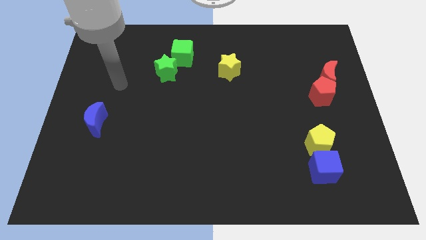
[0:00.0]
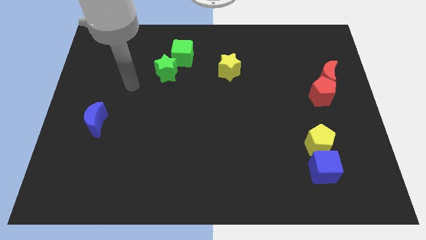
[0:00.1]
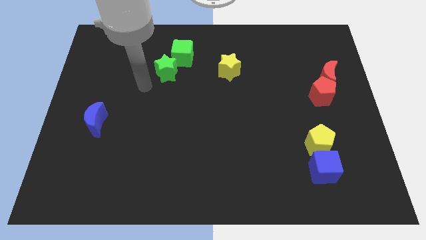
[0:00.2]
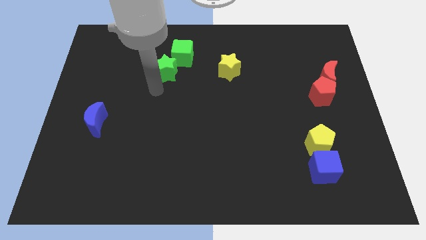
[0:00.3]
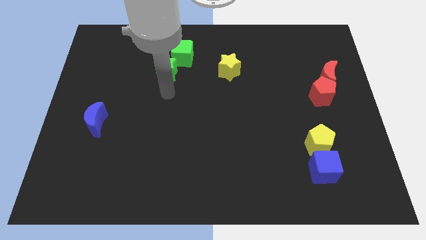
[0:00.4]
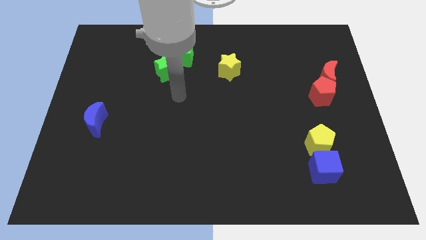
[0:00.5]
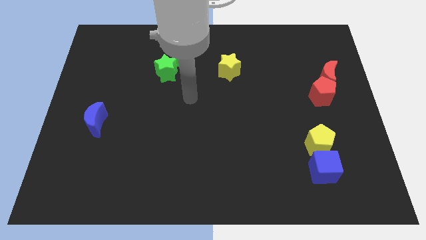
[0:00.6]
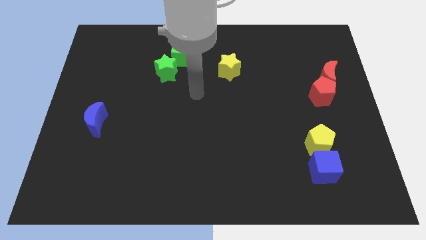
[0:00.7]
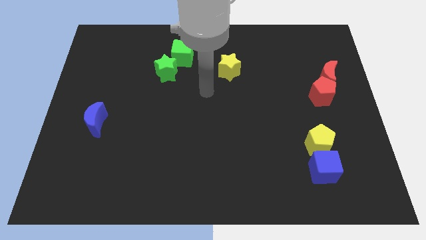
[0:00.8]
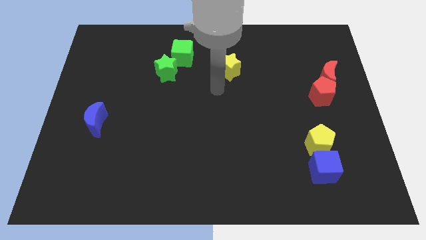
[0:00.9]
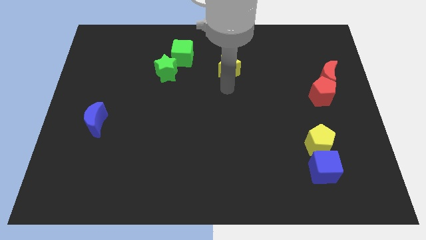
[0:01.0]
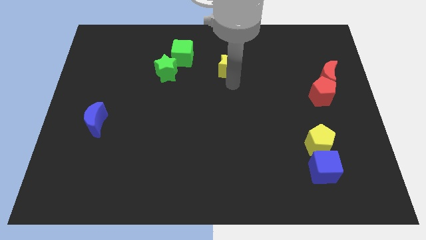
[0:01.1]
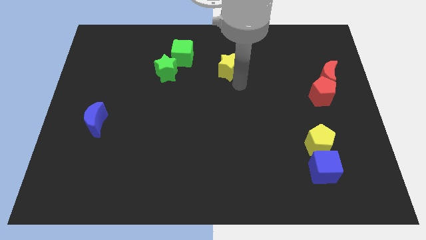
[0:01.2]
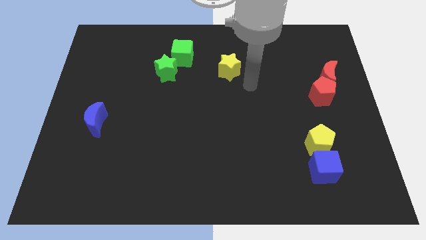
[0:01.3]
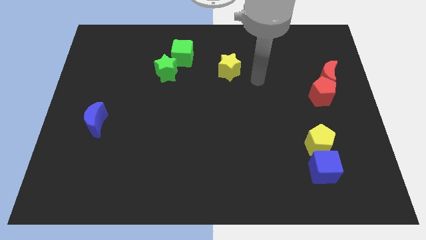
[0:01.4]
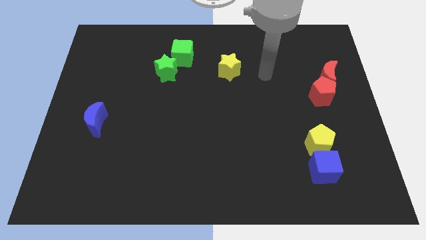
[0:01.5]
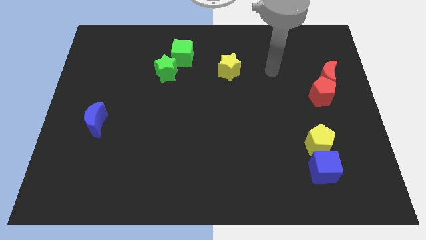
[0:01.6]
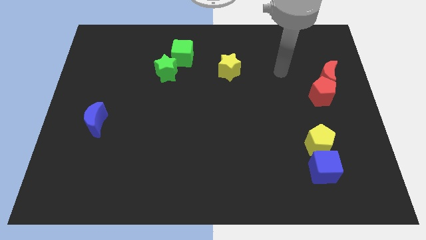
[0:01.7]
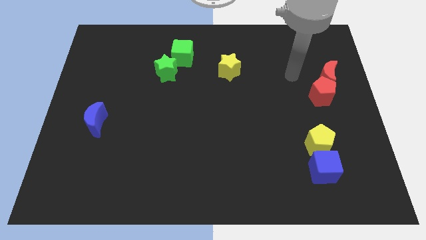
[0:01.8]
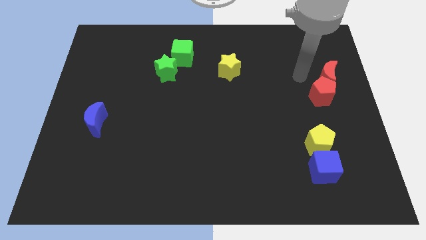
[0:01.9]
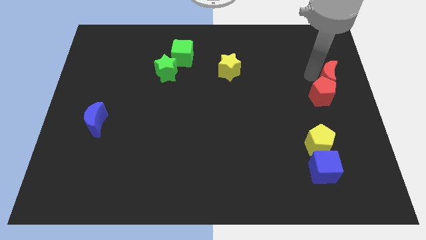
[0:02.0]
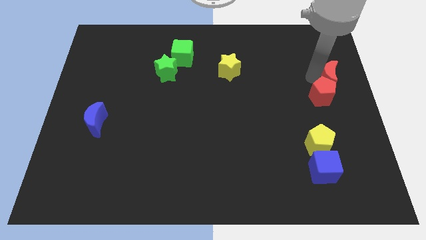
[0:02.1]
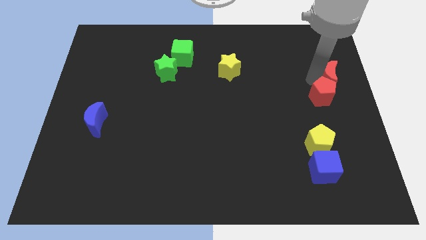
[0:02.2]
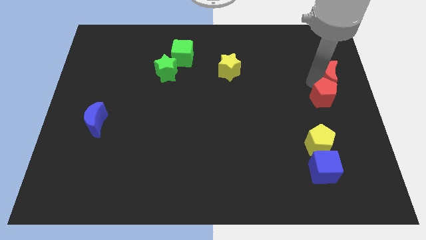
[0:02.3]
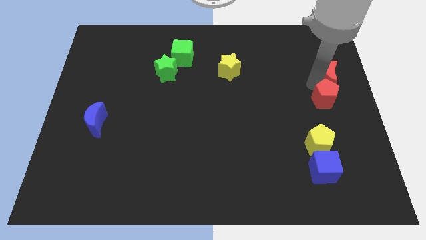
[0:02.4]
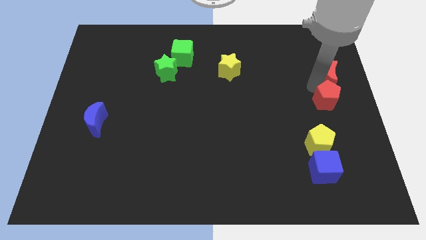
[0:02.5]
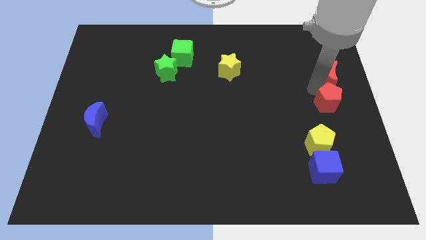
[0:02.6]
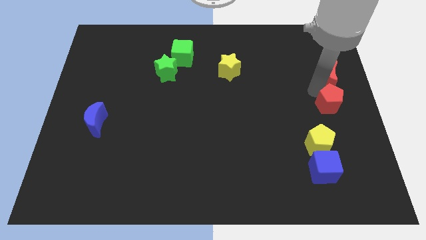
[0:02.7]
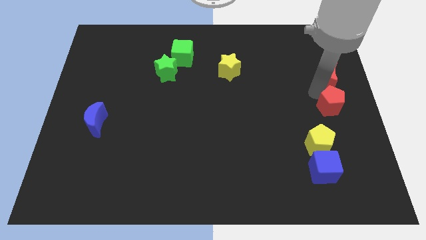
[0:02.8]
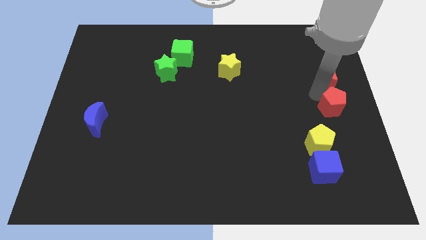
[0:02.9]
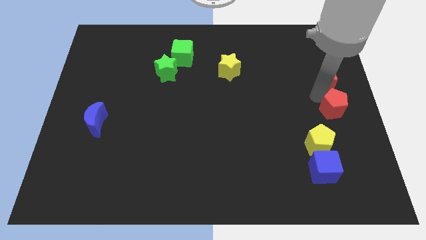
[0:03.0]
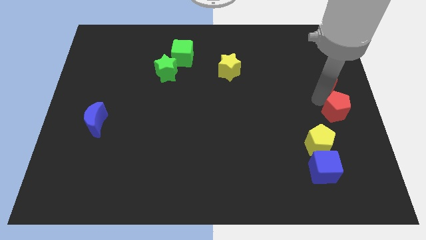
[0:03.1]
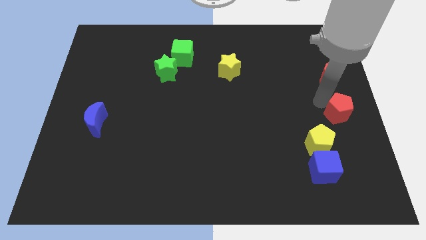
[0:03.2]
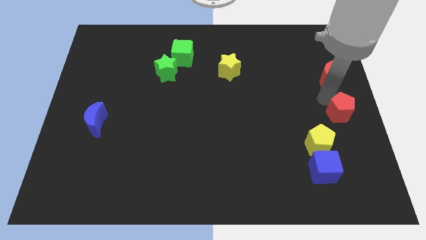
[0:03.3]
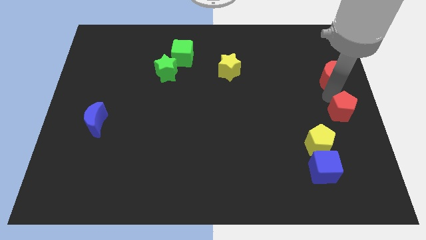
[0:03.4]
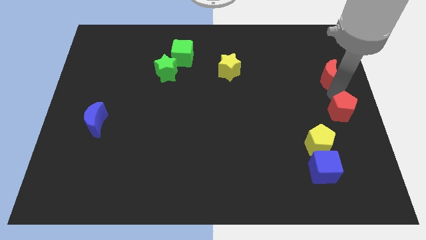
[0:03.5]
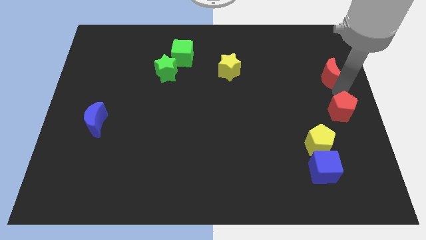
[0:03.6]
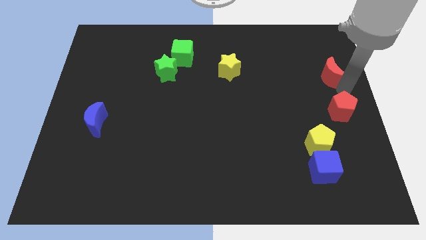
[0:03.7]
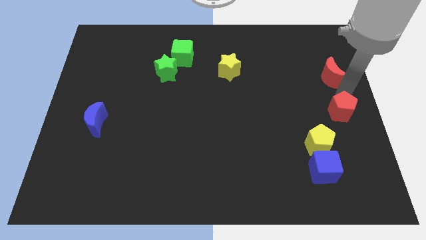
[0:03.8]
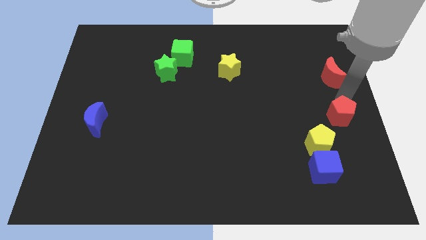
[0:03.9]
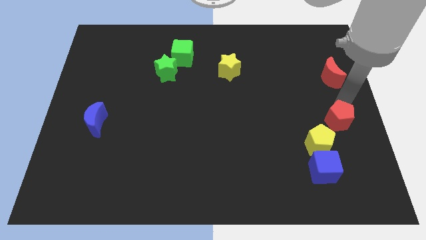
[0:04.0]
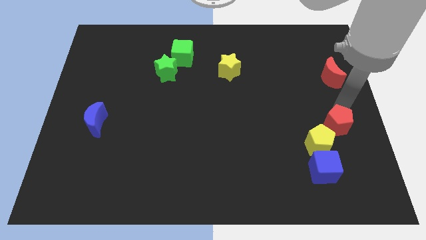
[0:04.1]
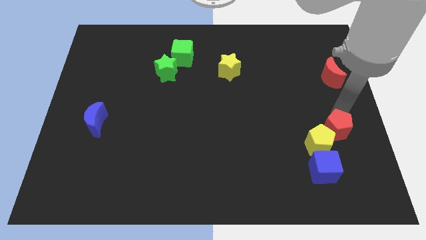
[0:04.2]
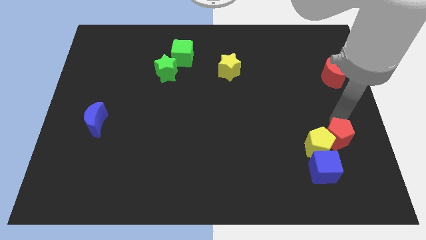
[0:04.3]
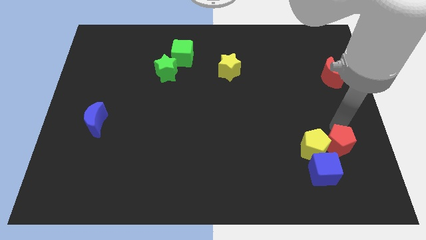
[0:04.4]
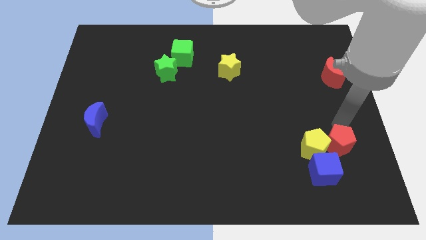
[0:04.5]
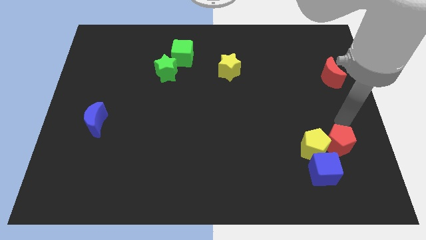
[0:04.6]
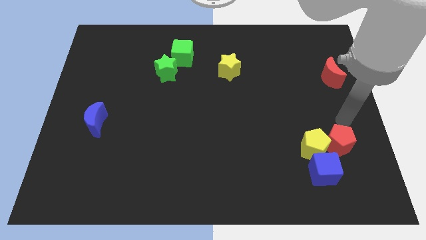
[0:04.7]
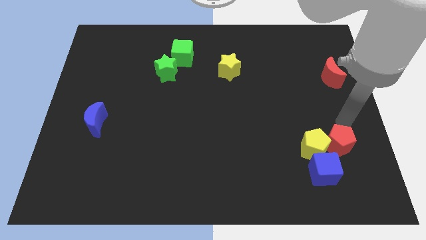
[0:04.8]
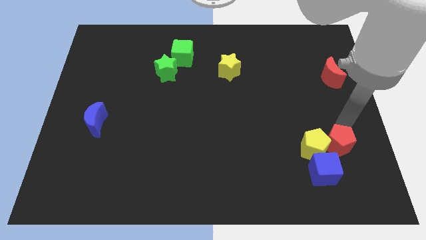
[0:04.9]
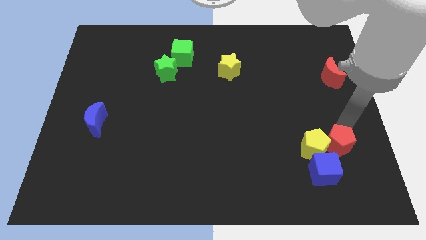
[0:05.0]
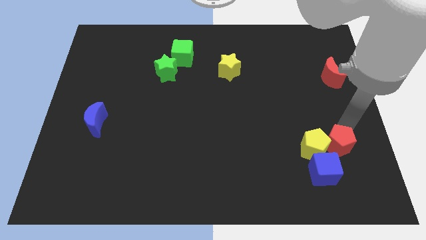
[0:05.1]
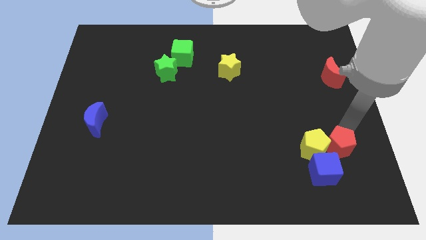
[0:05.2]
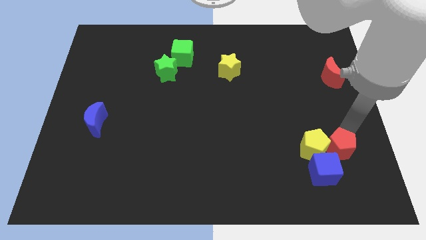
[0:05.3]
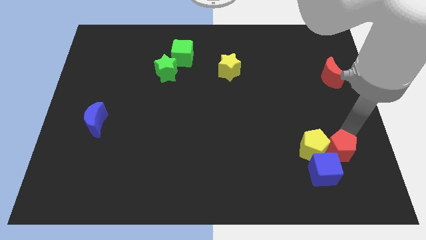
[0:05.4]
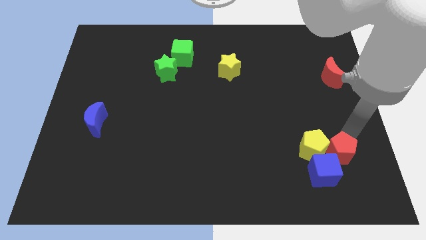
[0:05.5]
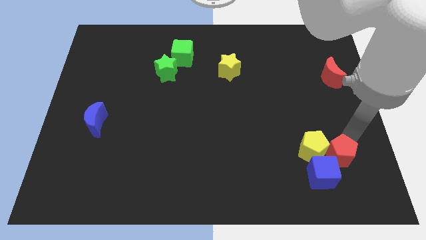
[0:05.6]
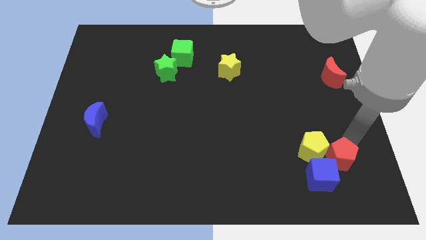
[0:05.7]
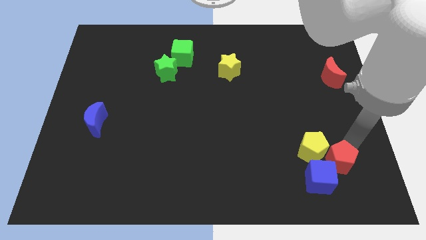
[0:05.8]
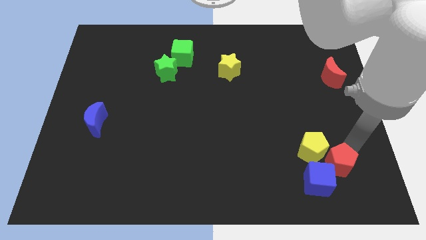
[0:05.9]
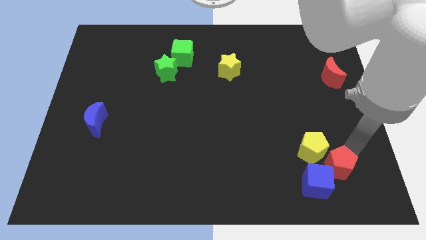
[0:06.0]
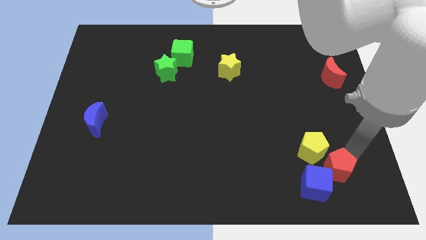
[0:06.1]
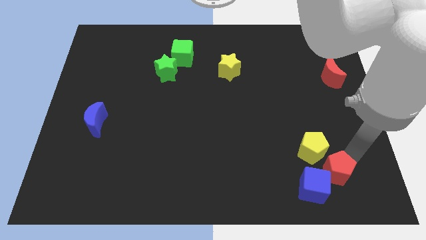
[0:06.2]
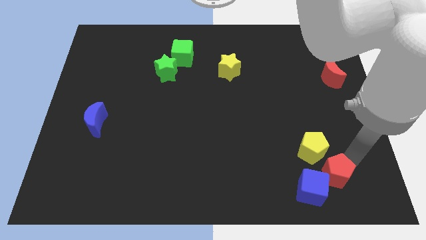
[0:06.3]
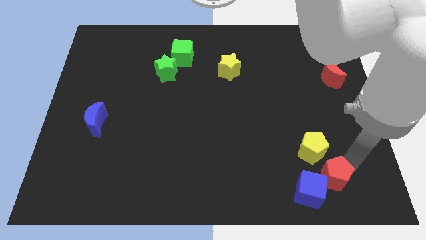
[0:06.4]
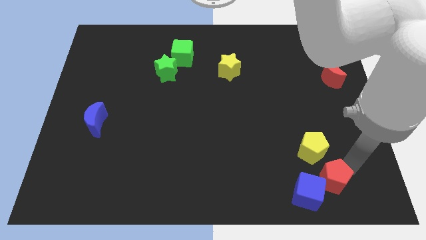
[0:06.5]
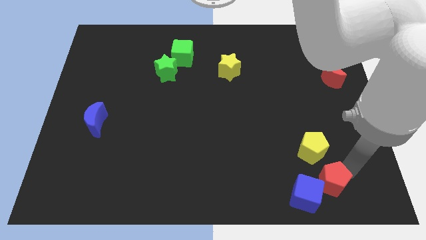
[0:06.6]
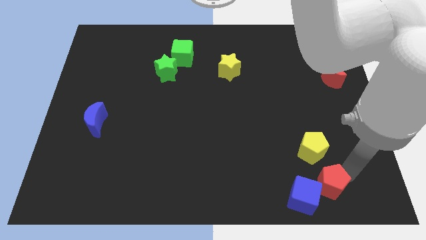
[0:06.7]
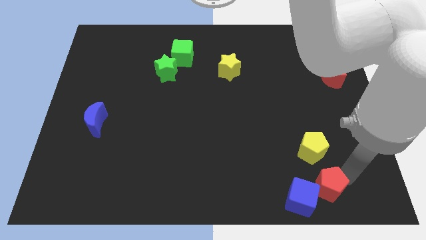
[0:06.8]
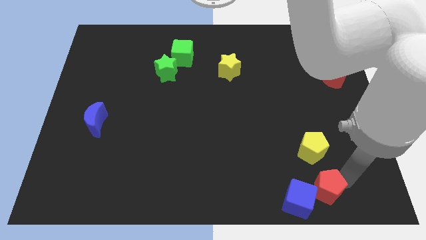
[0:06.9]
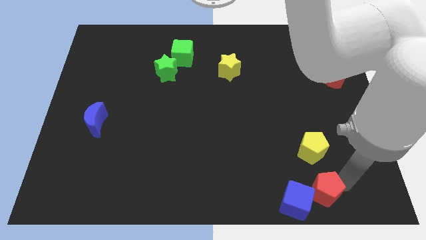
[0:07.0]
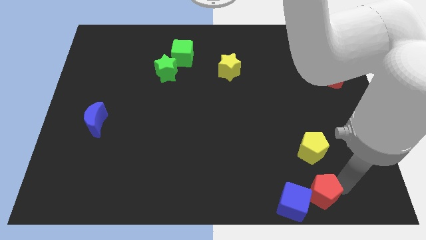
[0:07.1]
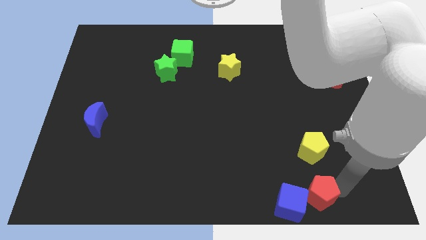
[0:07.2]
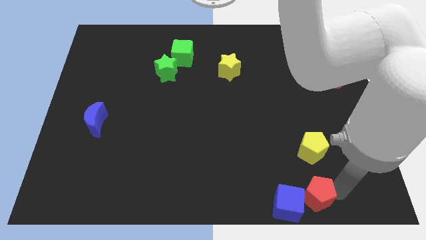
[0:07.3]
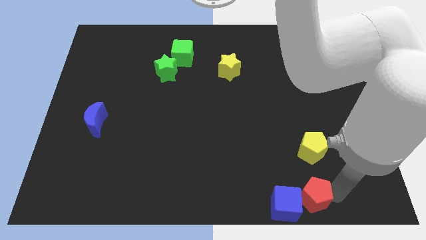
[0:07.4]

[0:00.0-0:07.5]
move the red pentagon towards the blue cube
